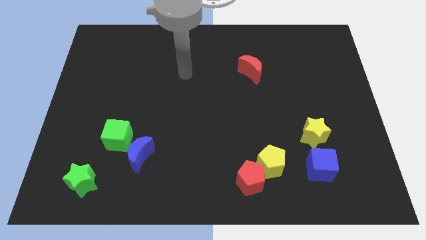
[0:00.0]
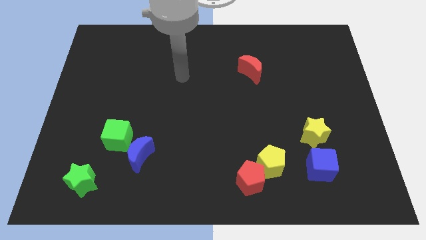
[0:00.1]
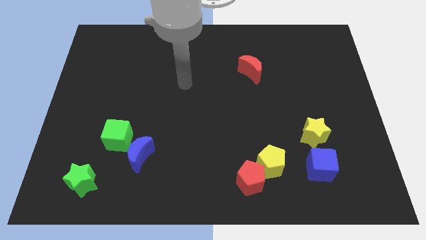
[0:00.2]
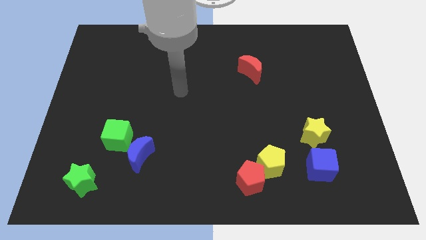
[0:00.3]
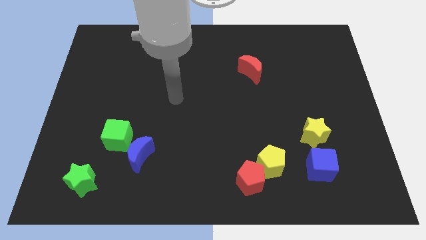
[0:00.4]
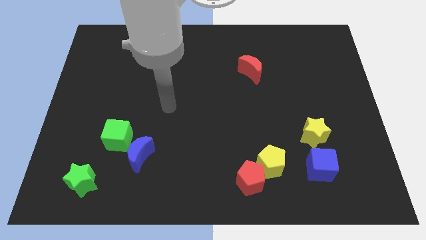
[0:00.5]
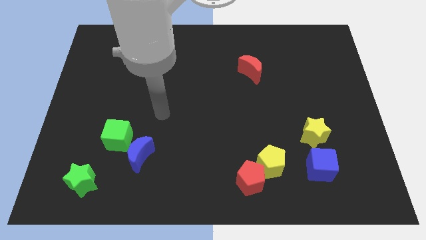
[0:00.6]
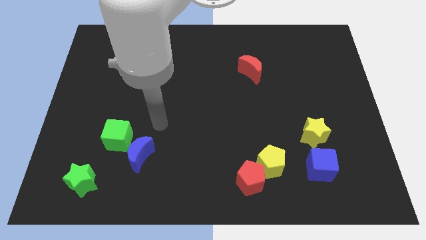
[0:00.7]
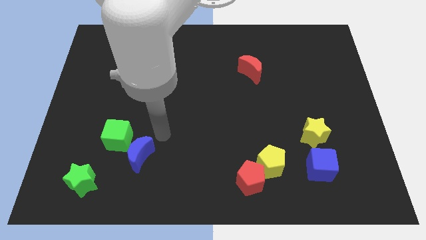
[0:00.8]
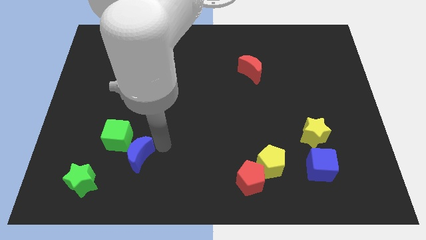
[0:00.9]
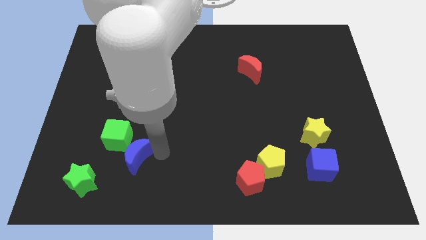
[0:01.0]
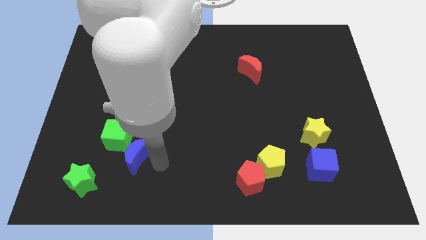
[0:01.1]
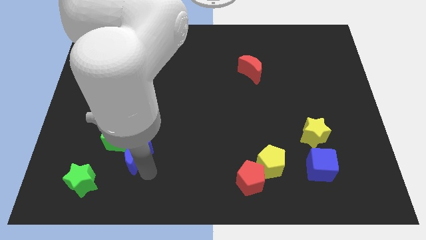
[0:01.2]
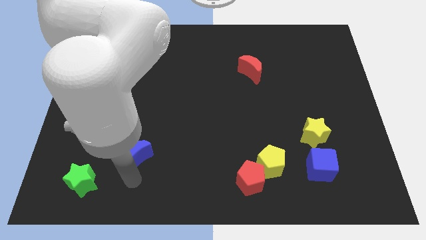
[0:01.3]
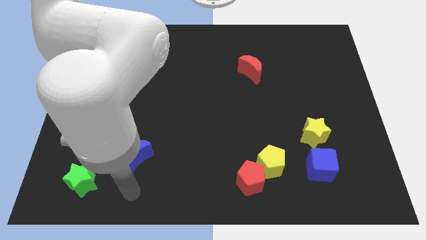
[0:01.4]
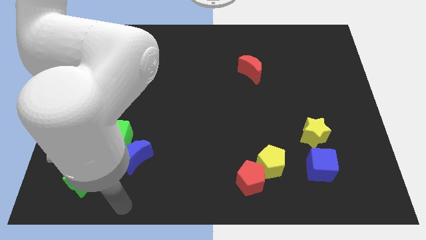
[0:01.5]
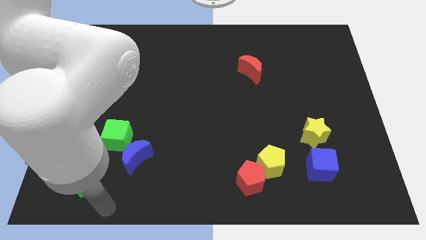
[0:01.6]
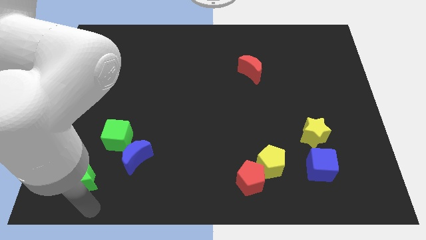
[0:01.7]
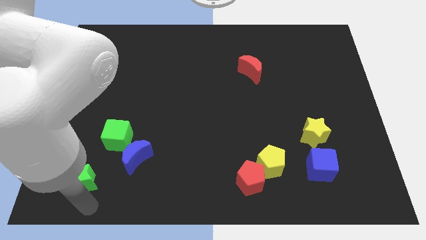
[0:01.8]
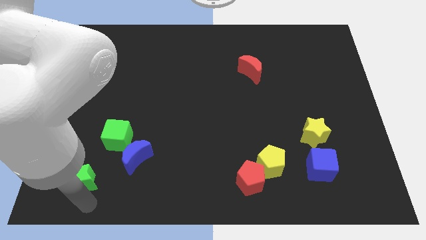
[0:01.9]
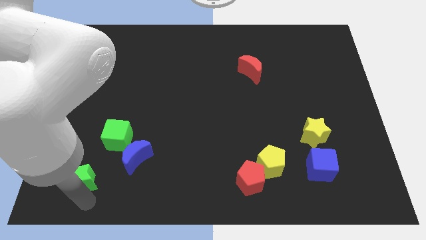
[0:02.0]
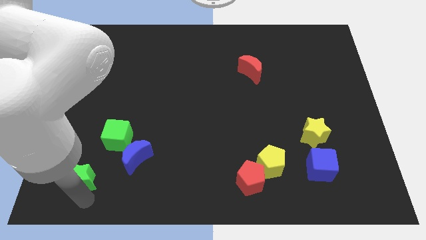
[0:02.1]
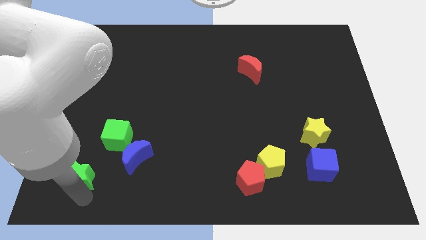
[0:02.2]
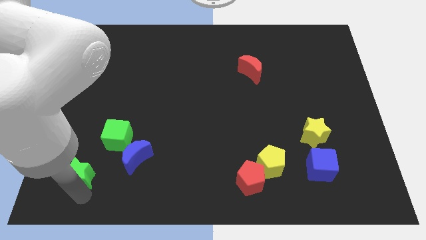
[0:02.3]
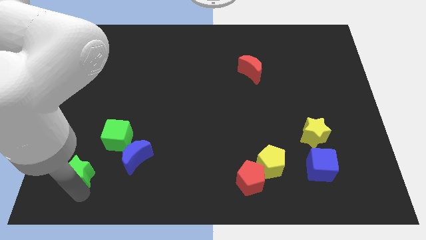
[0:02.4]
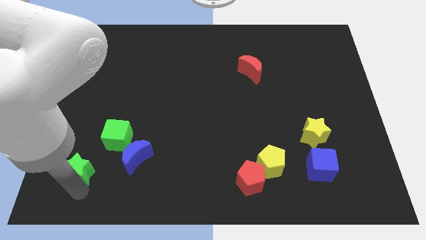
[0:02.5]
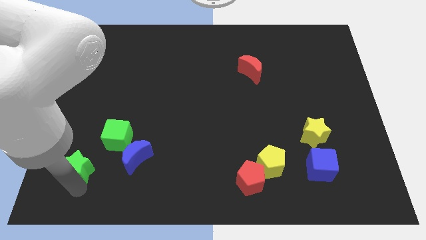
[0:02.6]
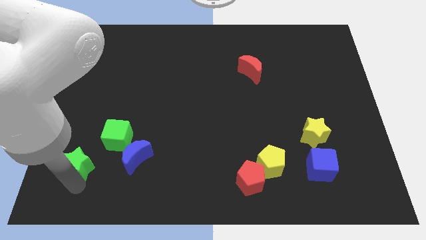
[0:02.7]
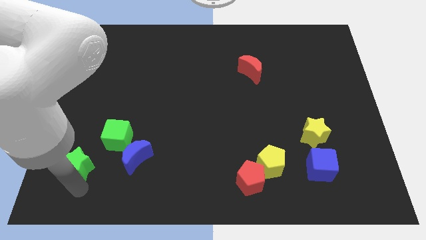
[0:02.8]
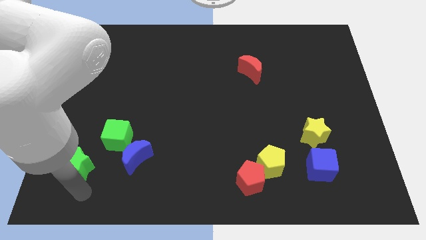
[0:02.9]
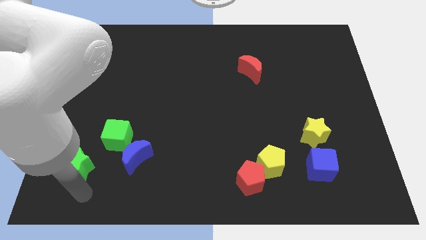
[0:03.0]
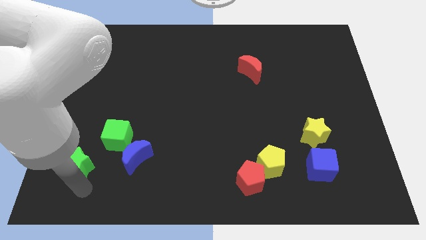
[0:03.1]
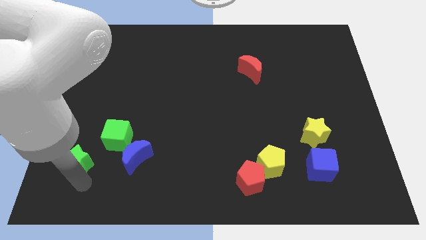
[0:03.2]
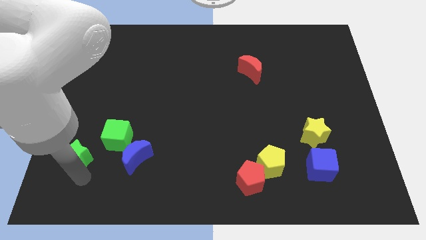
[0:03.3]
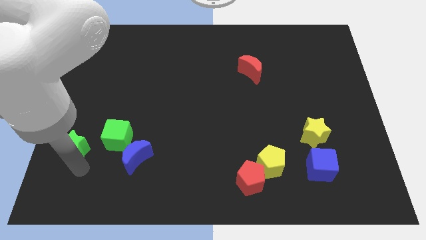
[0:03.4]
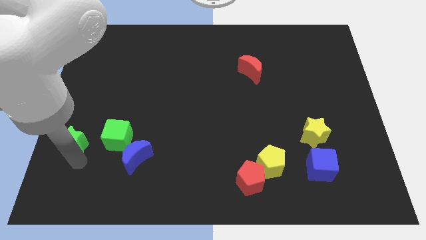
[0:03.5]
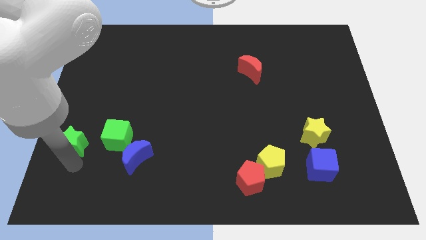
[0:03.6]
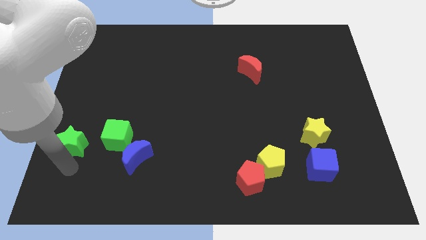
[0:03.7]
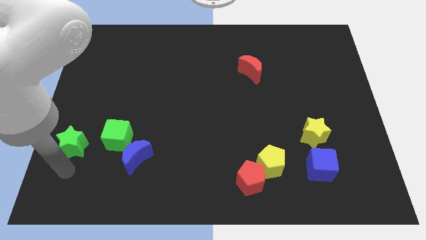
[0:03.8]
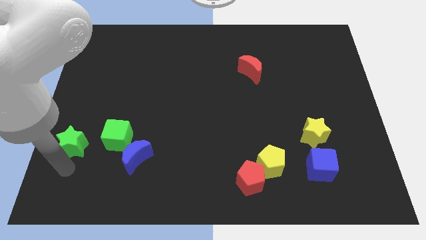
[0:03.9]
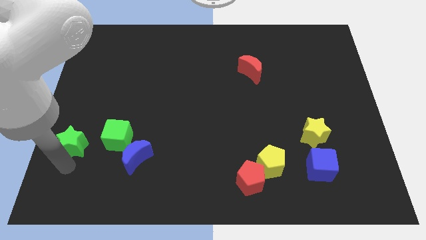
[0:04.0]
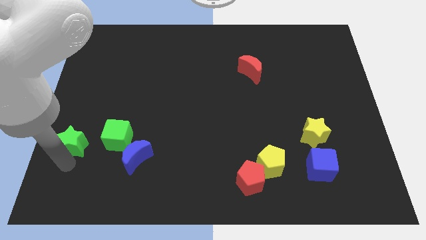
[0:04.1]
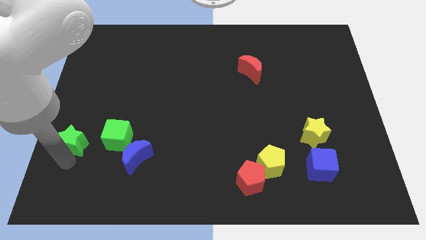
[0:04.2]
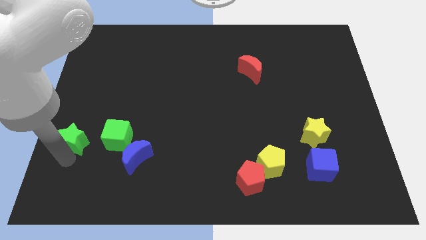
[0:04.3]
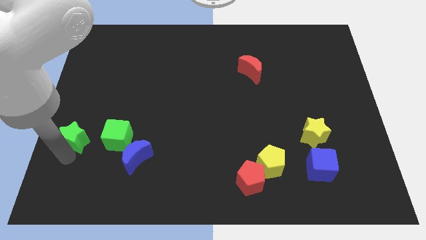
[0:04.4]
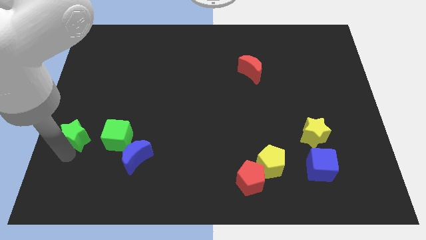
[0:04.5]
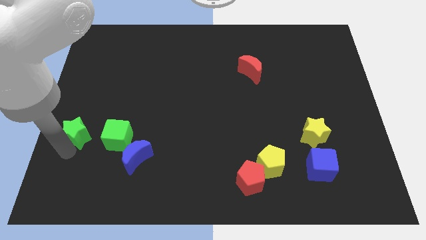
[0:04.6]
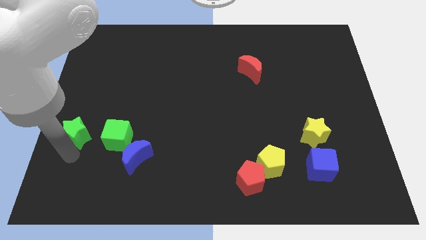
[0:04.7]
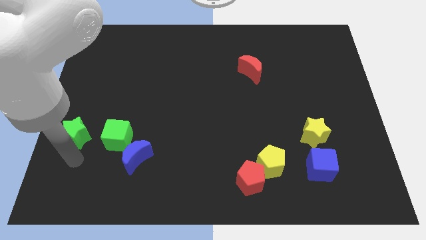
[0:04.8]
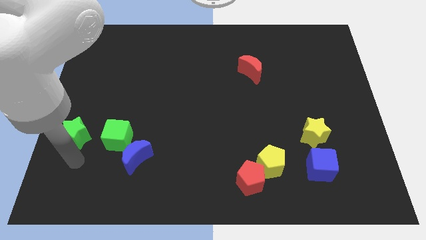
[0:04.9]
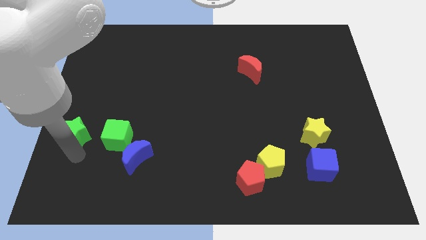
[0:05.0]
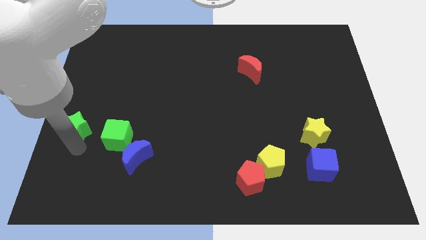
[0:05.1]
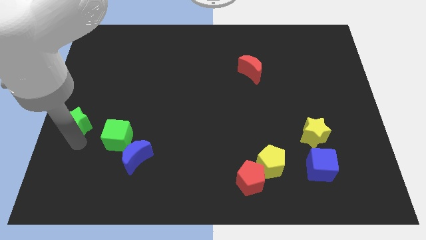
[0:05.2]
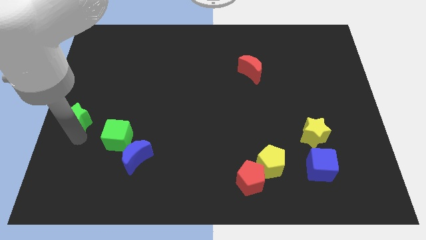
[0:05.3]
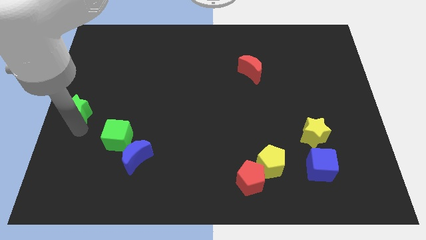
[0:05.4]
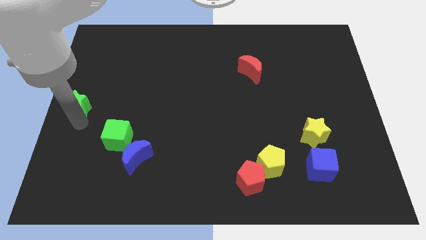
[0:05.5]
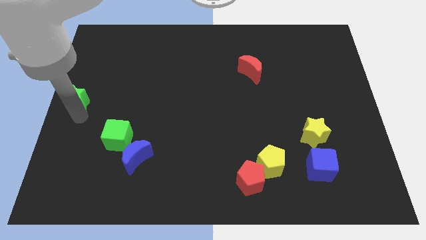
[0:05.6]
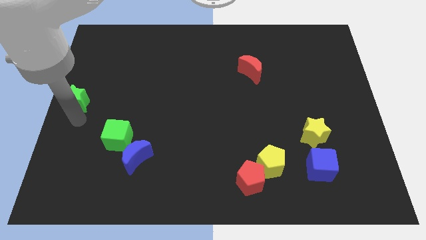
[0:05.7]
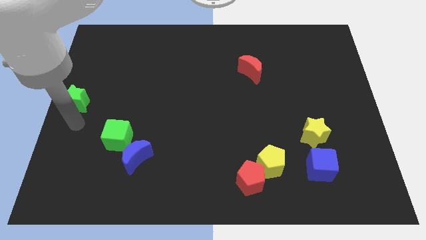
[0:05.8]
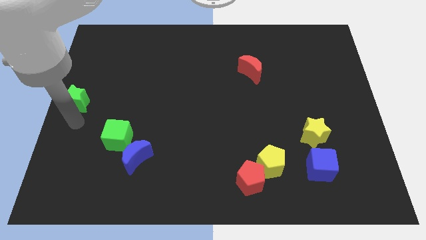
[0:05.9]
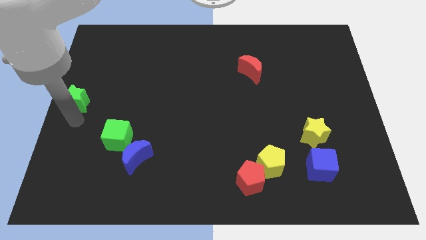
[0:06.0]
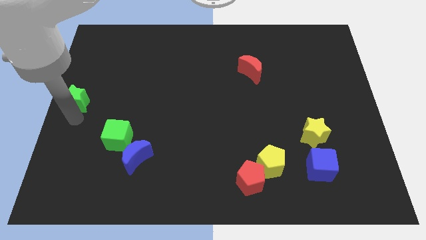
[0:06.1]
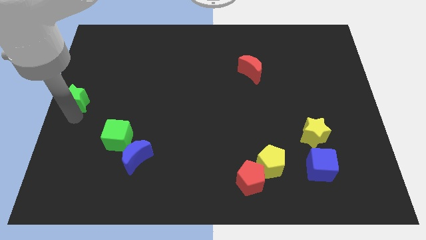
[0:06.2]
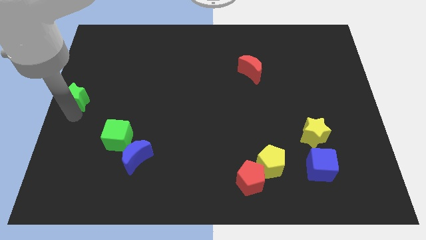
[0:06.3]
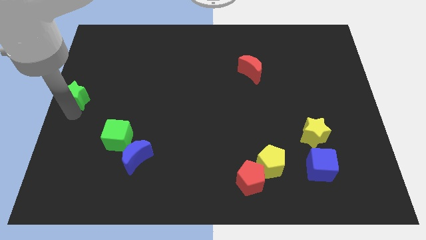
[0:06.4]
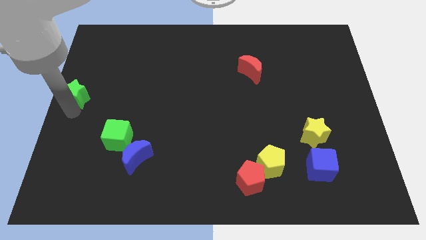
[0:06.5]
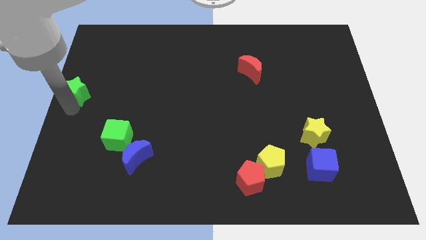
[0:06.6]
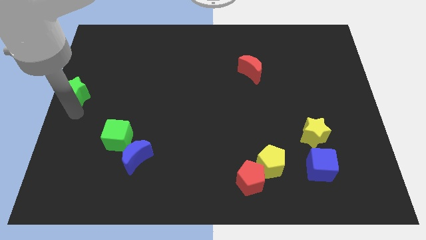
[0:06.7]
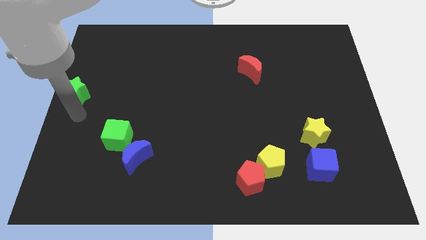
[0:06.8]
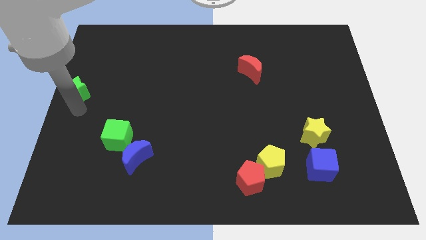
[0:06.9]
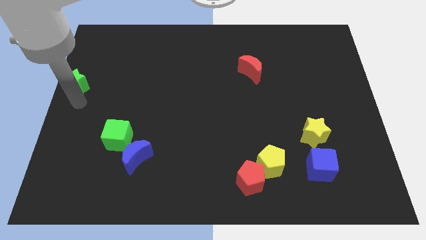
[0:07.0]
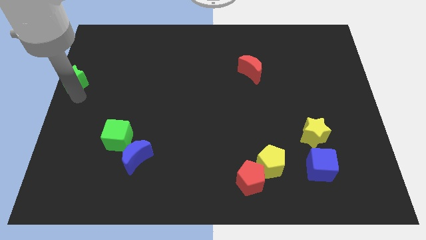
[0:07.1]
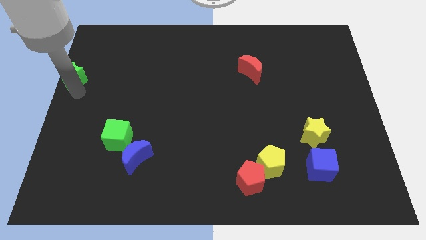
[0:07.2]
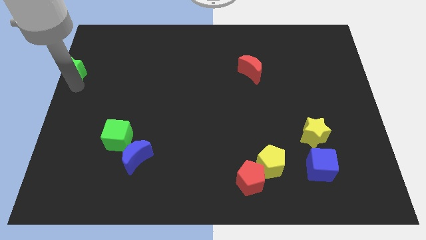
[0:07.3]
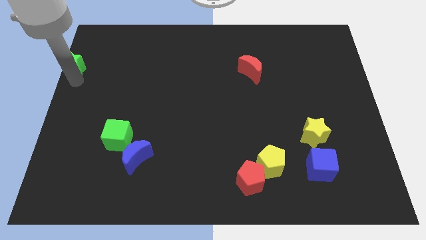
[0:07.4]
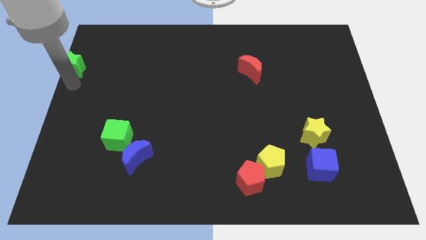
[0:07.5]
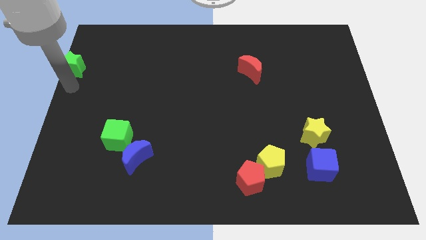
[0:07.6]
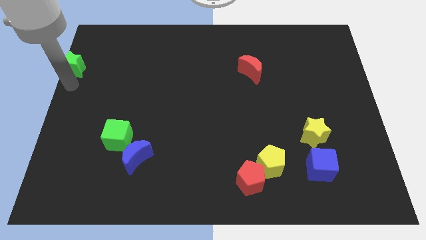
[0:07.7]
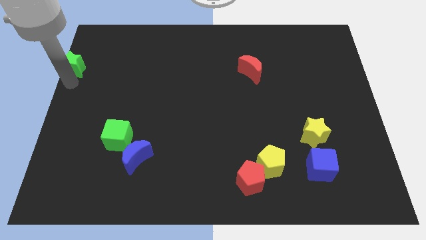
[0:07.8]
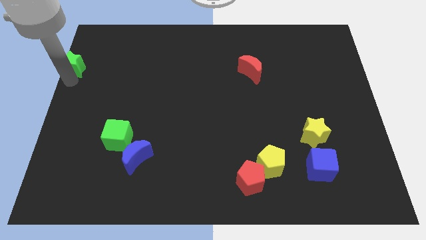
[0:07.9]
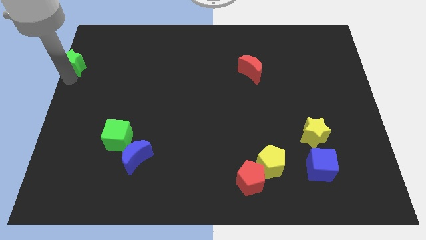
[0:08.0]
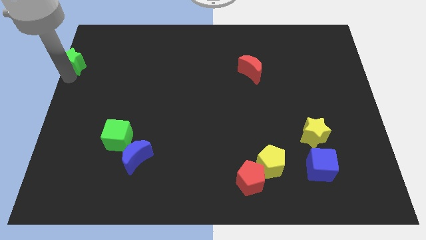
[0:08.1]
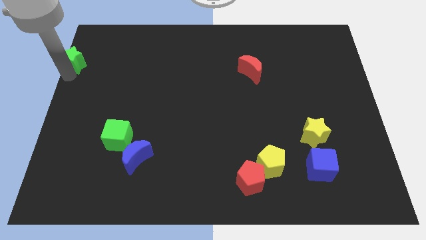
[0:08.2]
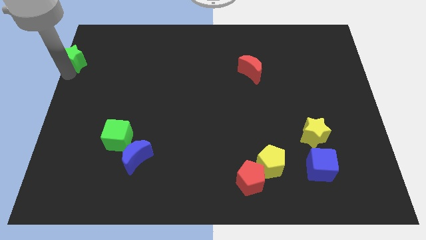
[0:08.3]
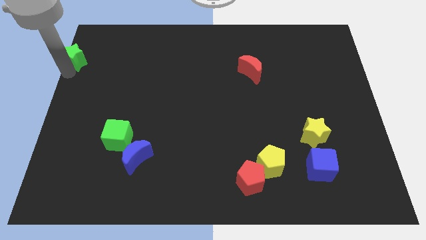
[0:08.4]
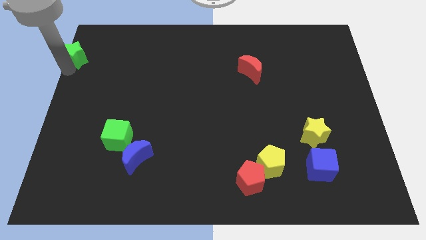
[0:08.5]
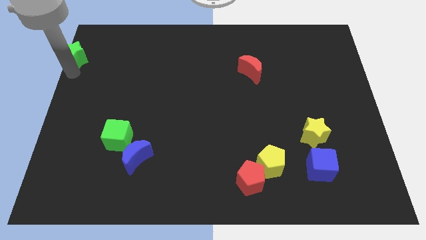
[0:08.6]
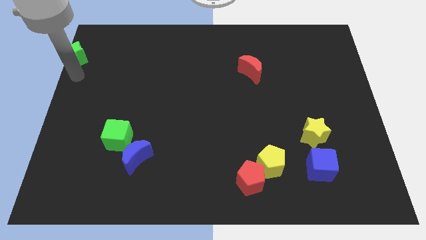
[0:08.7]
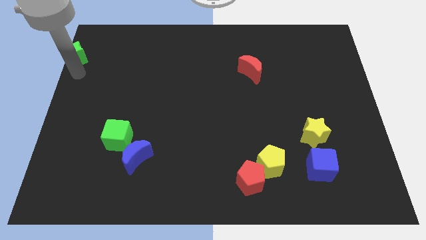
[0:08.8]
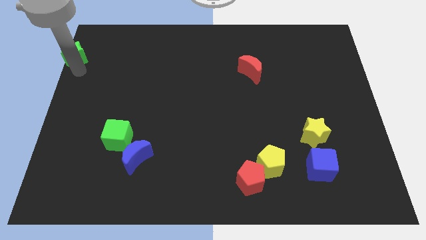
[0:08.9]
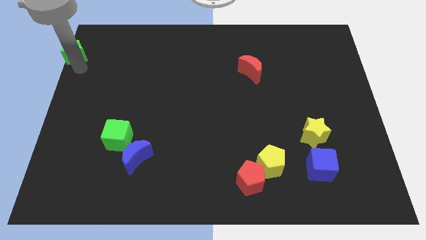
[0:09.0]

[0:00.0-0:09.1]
move the green star to the top left of the board
